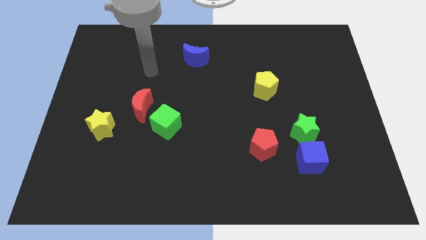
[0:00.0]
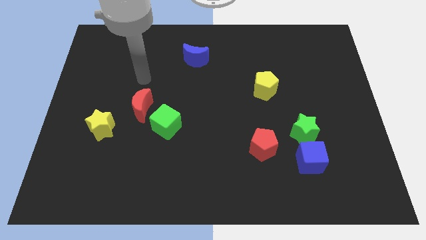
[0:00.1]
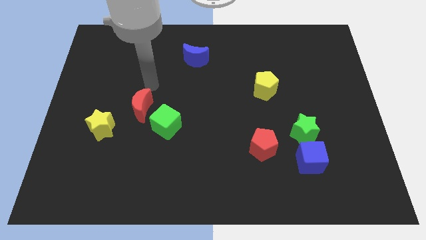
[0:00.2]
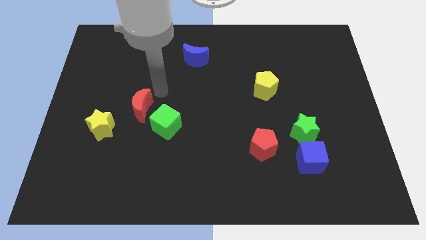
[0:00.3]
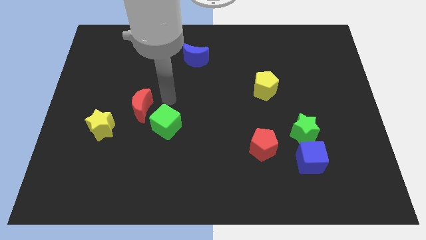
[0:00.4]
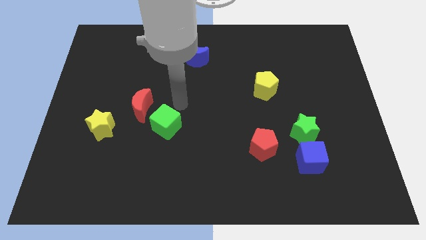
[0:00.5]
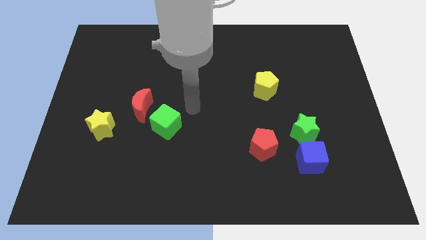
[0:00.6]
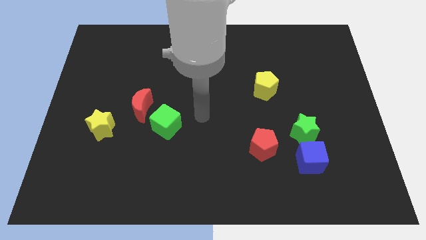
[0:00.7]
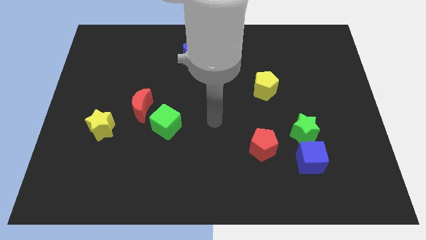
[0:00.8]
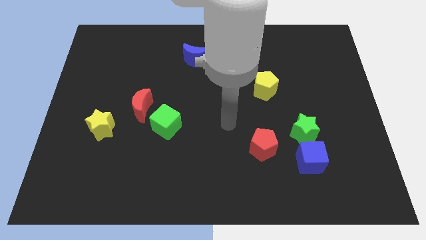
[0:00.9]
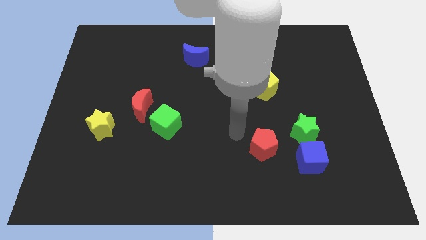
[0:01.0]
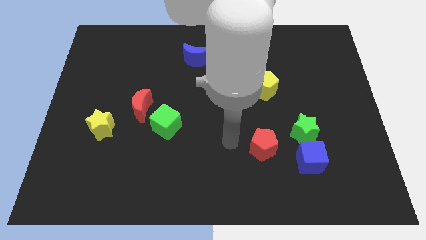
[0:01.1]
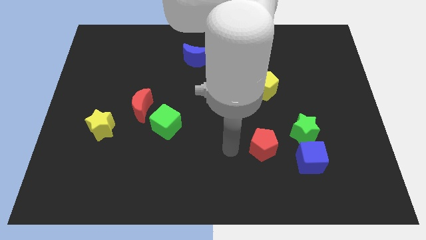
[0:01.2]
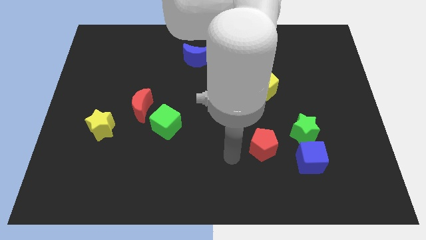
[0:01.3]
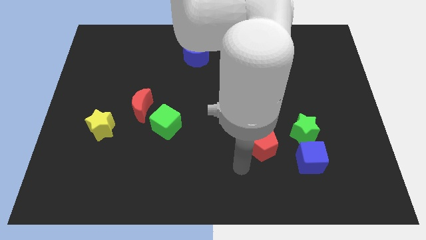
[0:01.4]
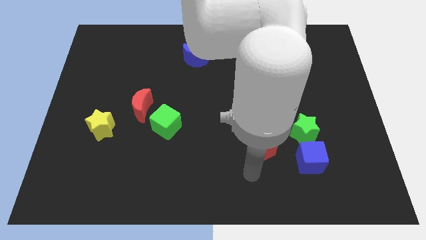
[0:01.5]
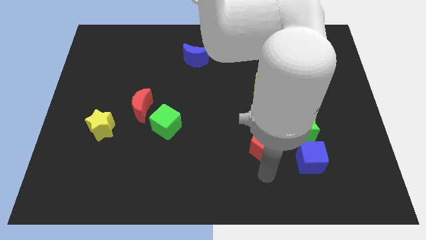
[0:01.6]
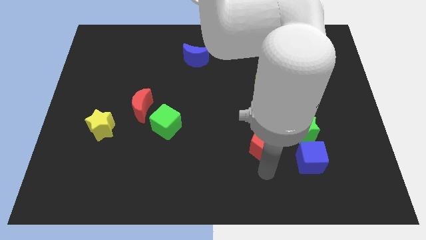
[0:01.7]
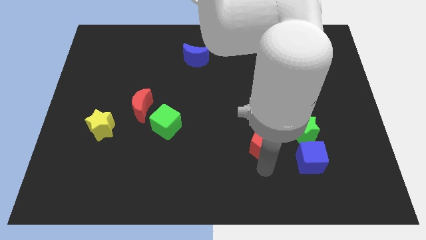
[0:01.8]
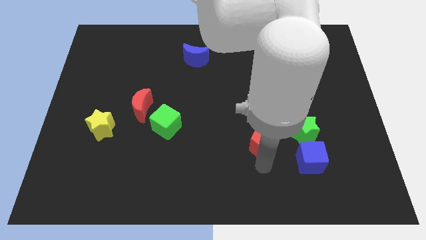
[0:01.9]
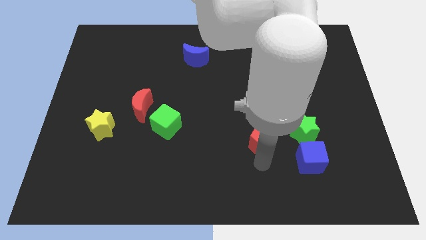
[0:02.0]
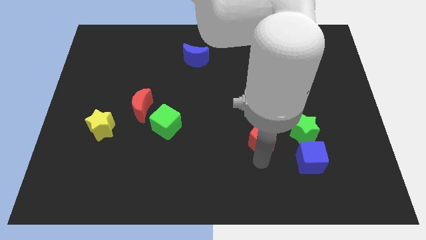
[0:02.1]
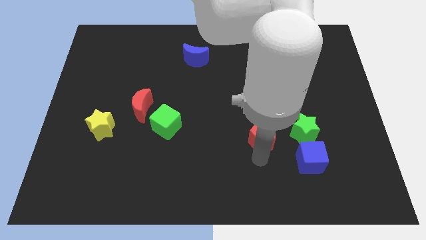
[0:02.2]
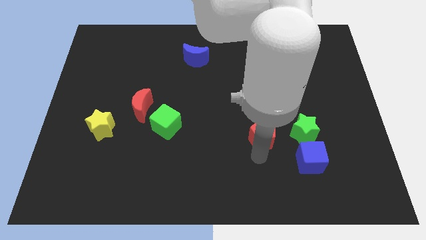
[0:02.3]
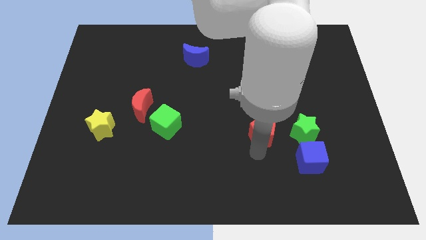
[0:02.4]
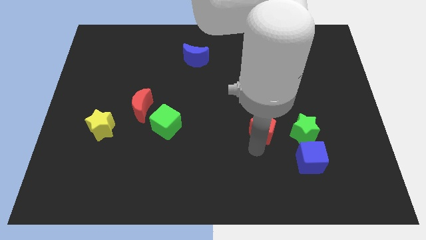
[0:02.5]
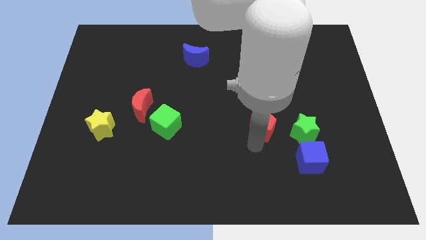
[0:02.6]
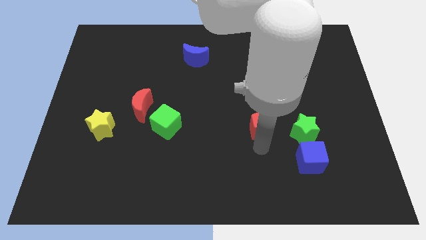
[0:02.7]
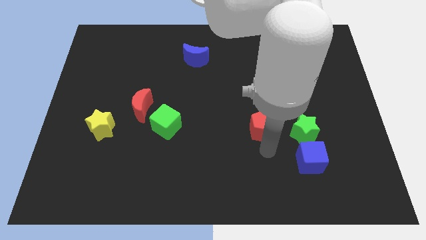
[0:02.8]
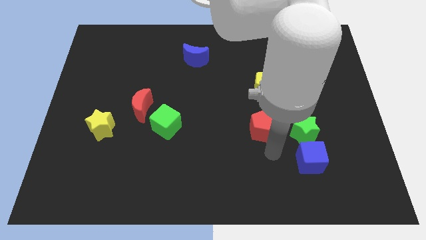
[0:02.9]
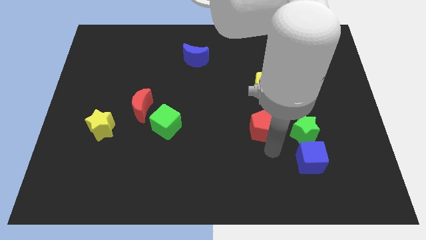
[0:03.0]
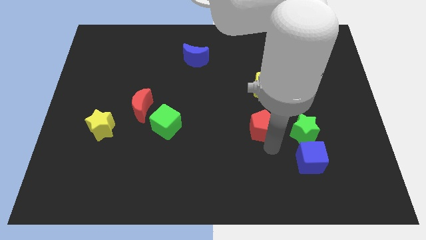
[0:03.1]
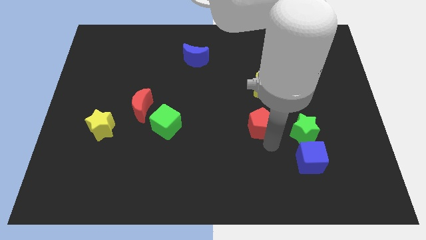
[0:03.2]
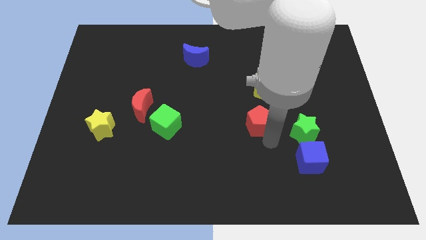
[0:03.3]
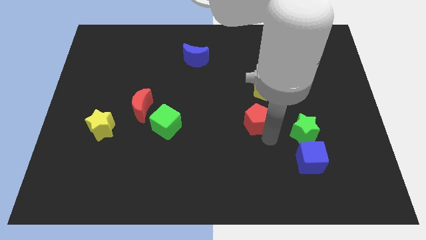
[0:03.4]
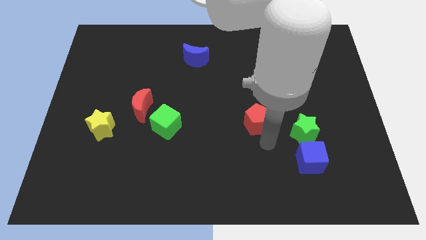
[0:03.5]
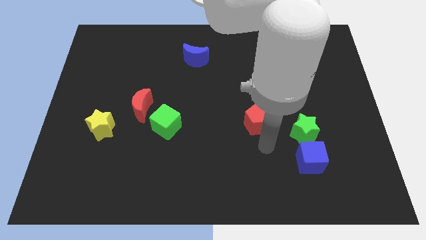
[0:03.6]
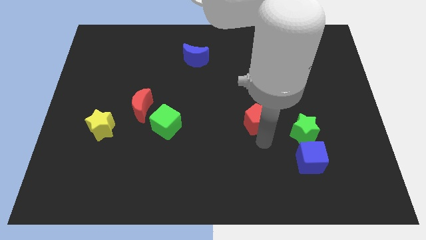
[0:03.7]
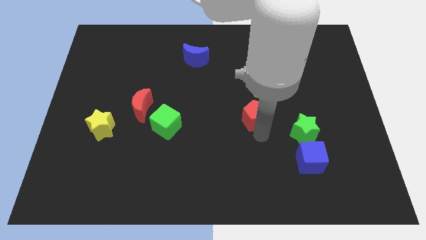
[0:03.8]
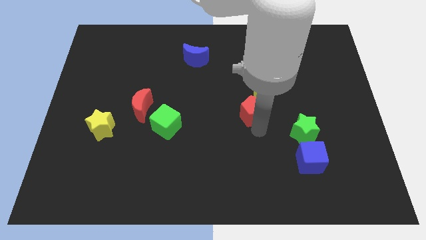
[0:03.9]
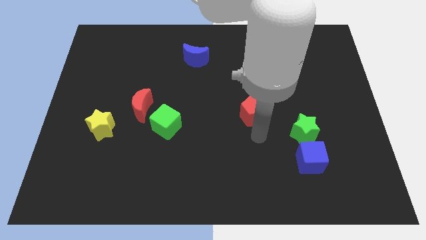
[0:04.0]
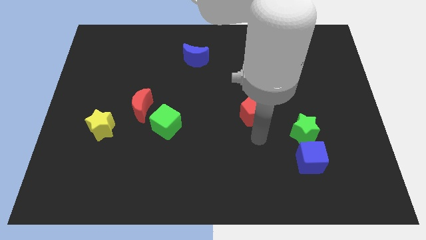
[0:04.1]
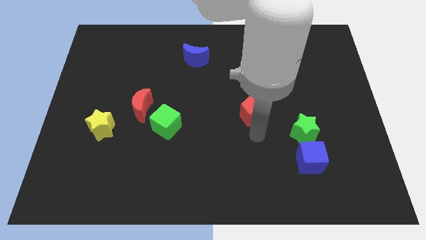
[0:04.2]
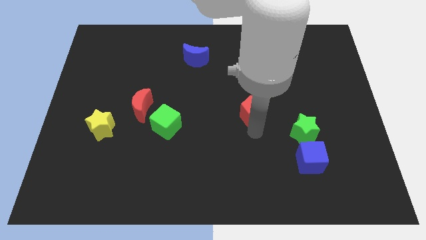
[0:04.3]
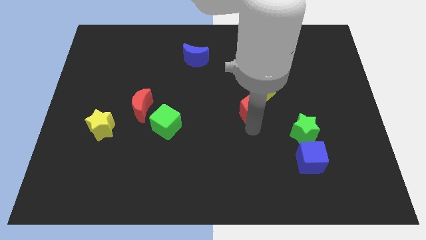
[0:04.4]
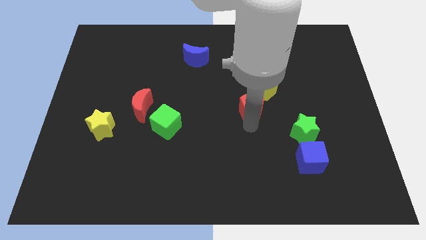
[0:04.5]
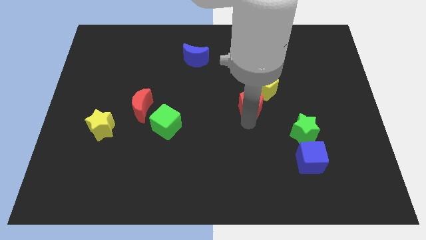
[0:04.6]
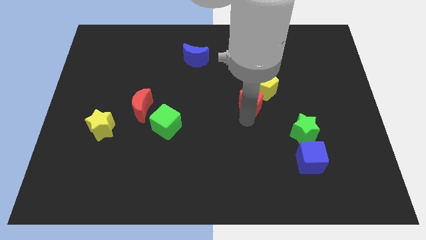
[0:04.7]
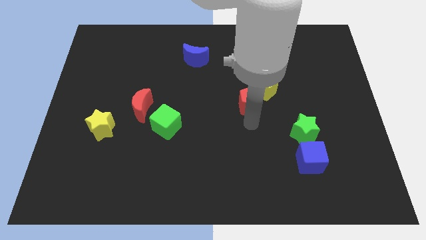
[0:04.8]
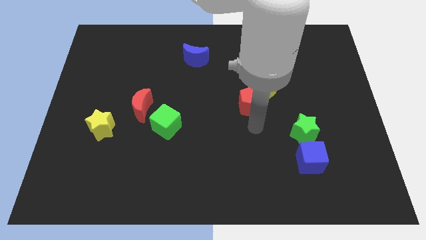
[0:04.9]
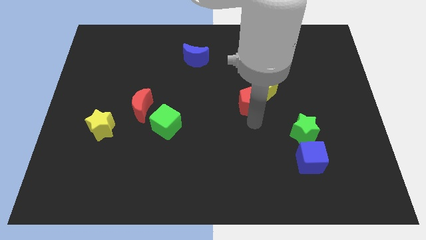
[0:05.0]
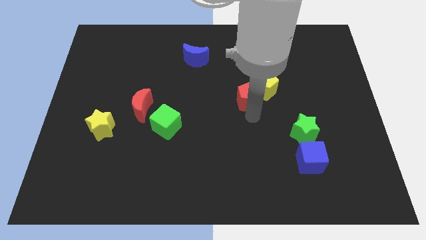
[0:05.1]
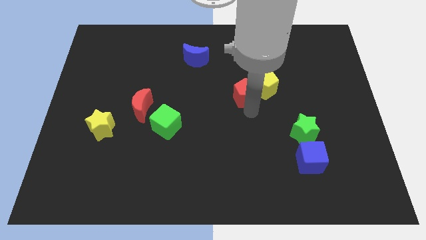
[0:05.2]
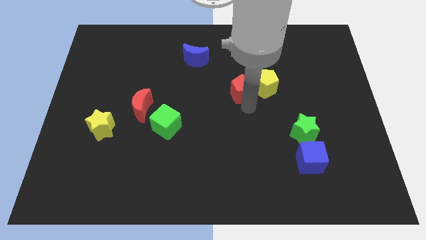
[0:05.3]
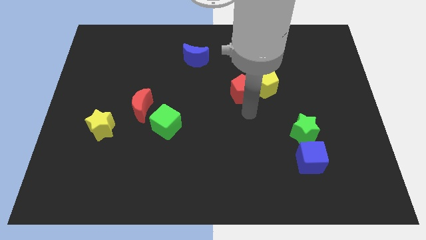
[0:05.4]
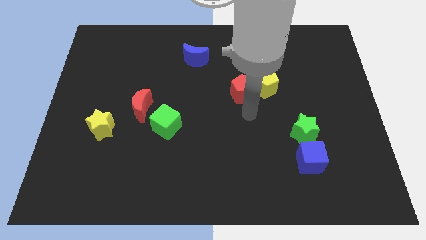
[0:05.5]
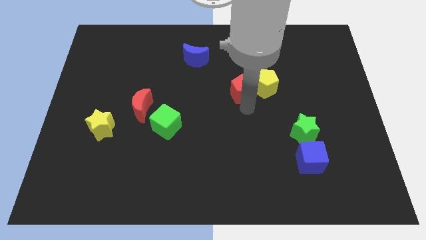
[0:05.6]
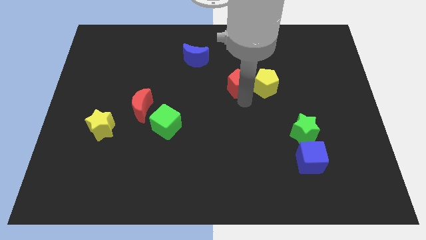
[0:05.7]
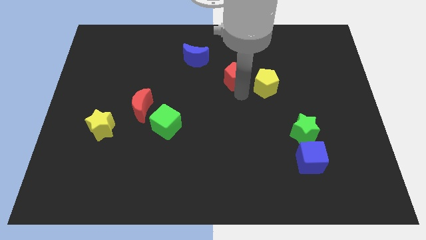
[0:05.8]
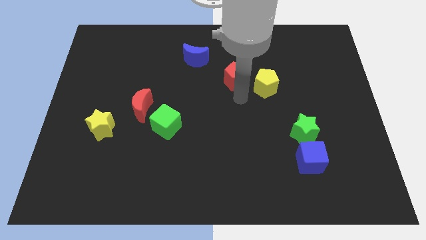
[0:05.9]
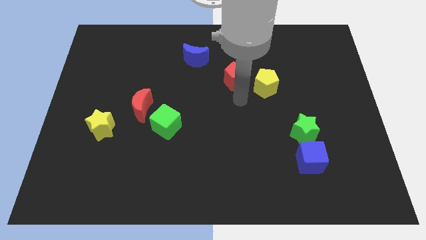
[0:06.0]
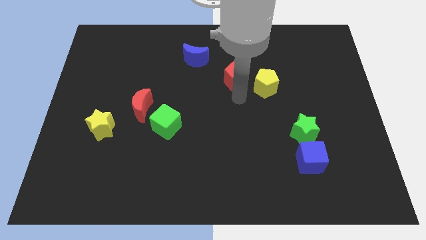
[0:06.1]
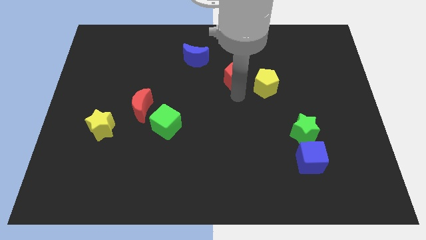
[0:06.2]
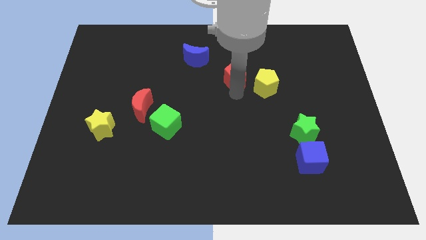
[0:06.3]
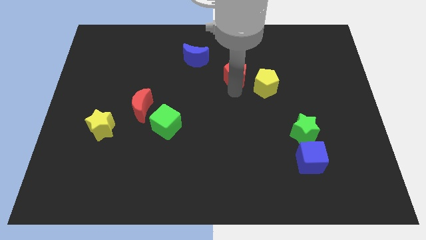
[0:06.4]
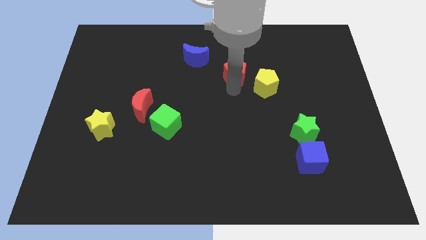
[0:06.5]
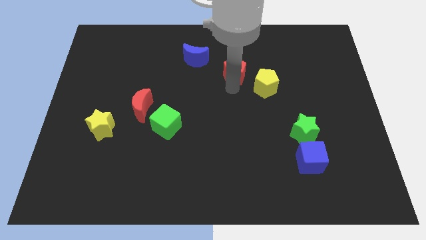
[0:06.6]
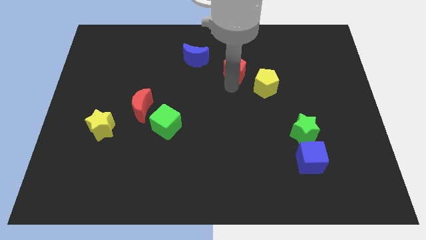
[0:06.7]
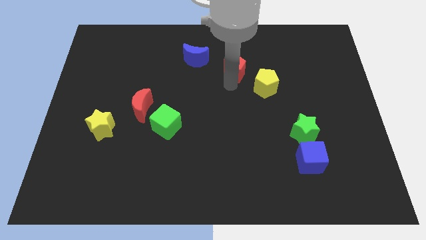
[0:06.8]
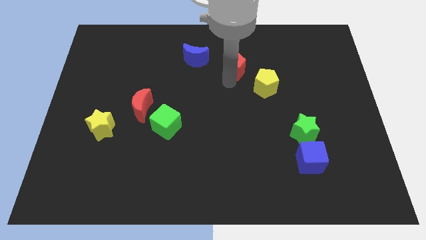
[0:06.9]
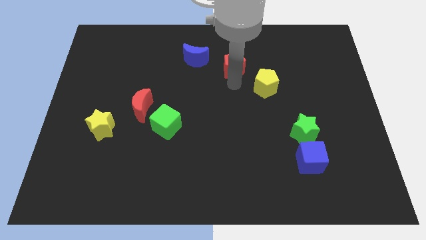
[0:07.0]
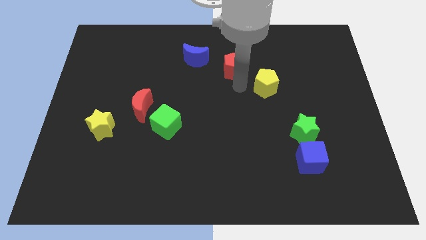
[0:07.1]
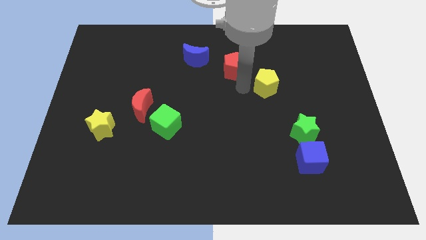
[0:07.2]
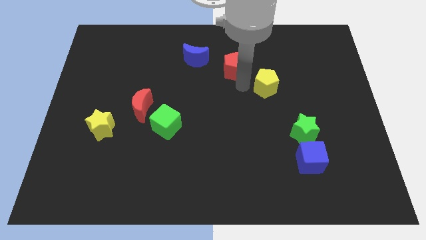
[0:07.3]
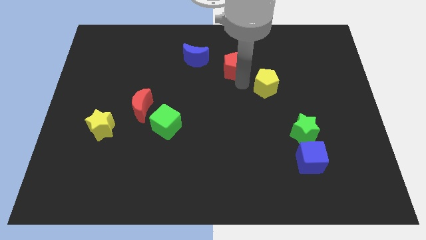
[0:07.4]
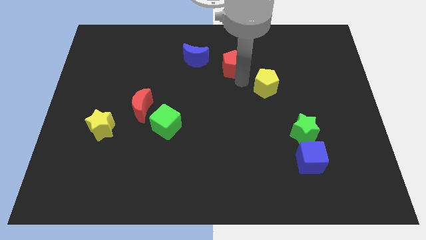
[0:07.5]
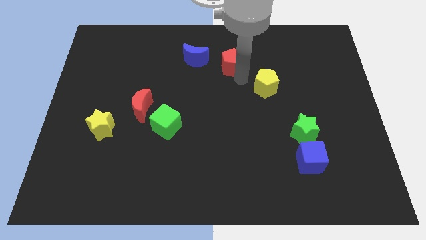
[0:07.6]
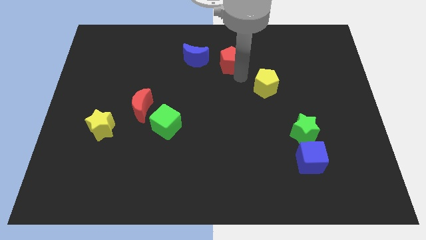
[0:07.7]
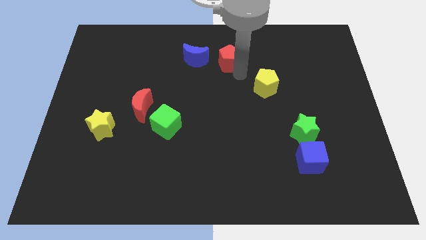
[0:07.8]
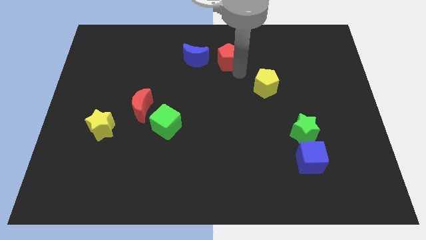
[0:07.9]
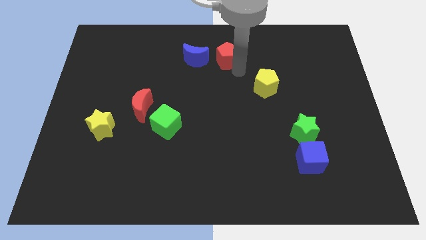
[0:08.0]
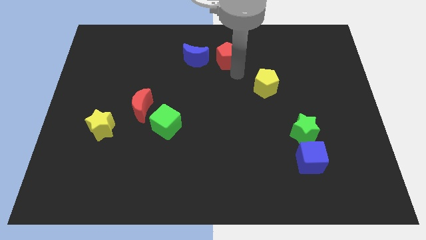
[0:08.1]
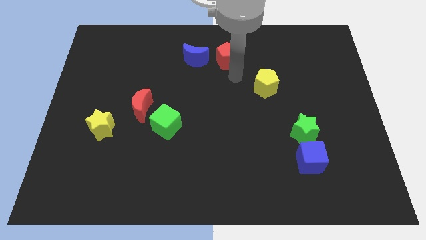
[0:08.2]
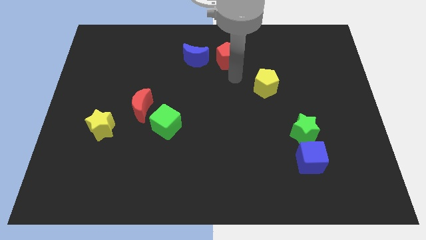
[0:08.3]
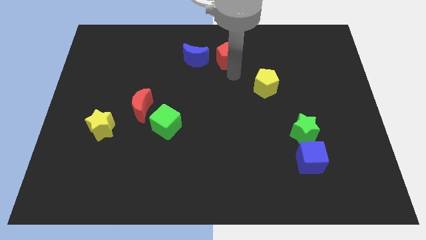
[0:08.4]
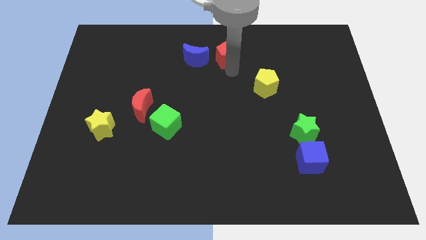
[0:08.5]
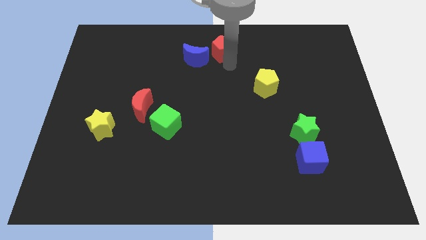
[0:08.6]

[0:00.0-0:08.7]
put the red pentagon to the top side
